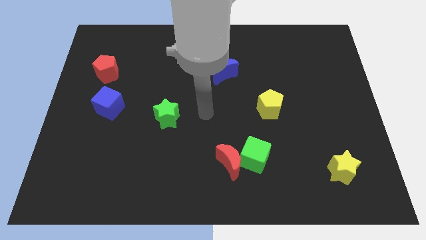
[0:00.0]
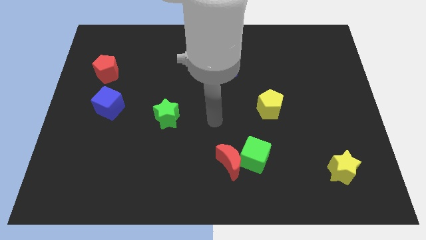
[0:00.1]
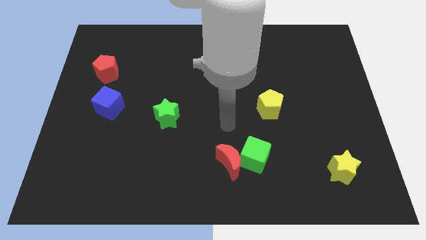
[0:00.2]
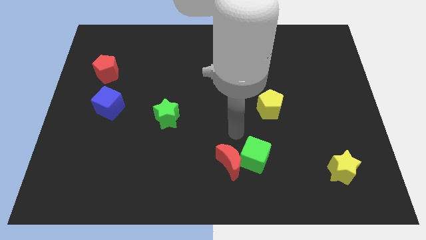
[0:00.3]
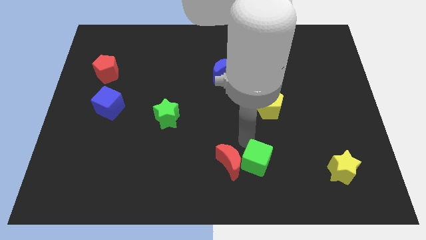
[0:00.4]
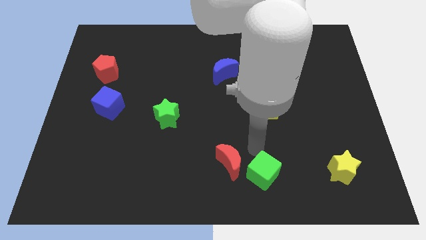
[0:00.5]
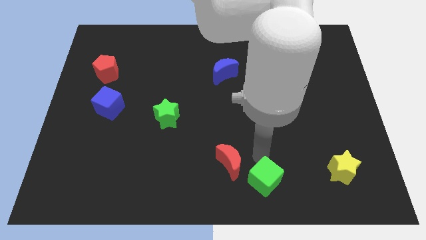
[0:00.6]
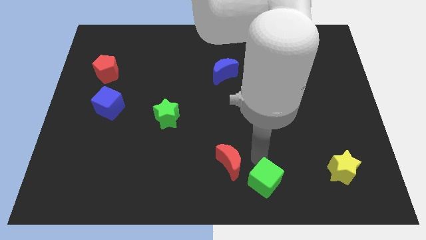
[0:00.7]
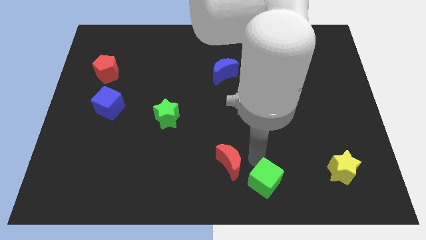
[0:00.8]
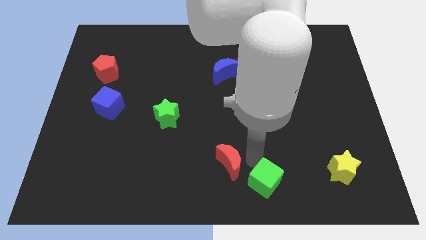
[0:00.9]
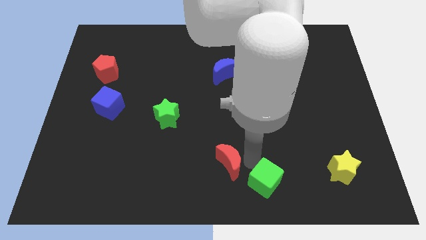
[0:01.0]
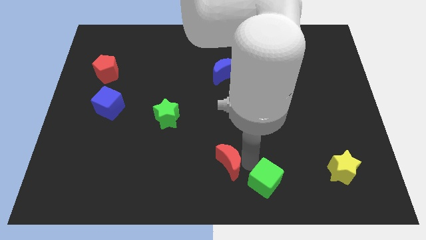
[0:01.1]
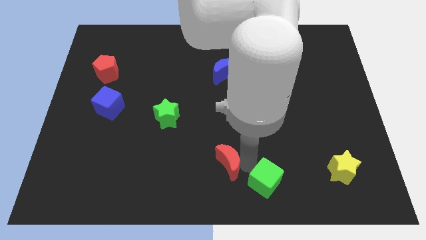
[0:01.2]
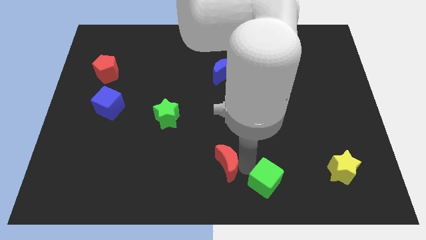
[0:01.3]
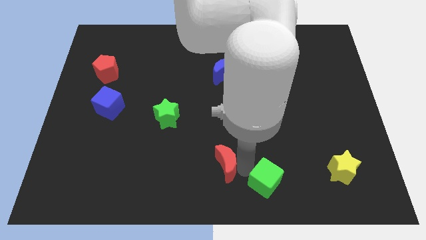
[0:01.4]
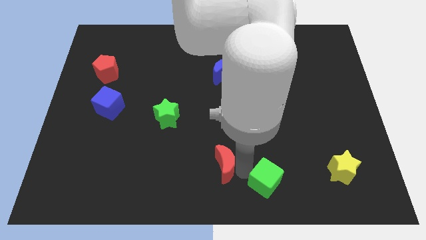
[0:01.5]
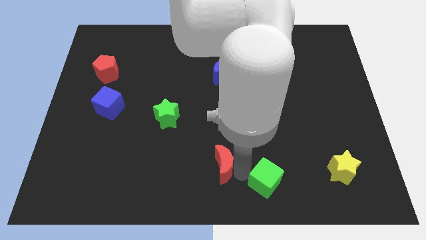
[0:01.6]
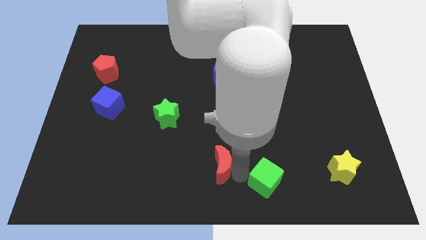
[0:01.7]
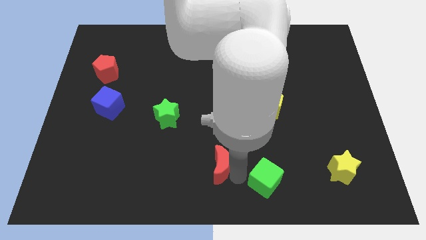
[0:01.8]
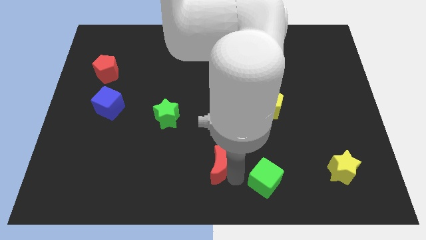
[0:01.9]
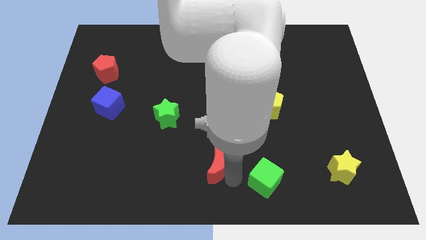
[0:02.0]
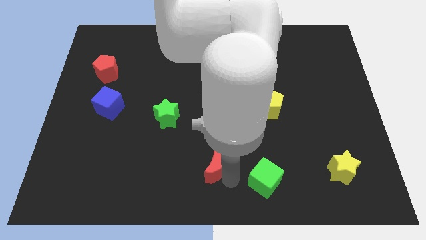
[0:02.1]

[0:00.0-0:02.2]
move the red moon away from the green cube

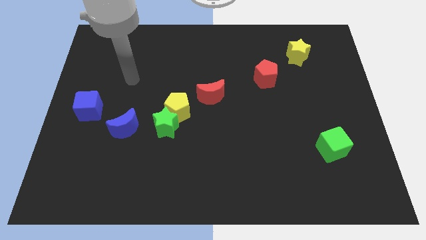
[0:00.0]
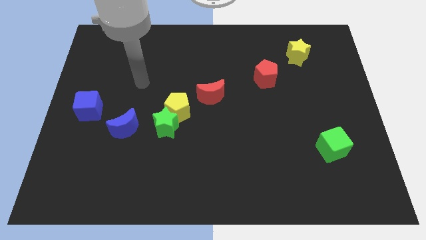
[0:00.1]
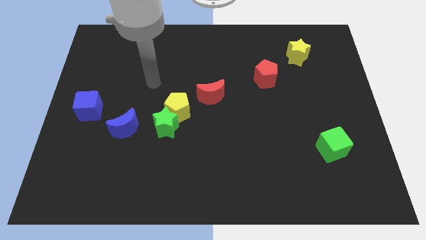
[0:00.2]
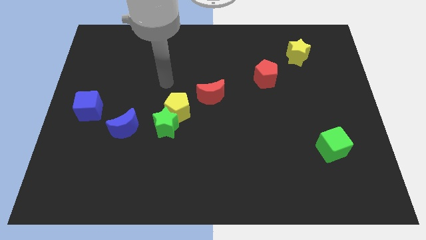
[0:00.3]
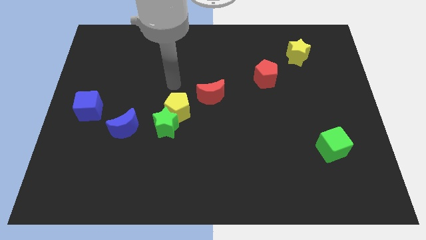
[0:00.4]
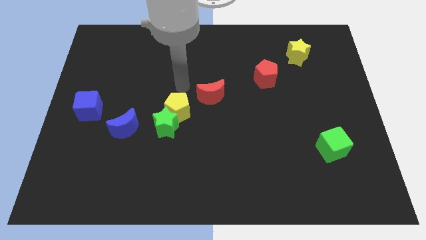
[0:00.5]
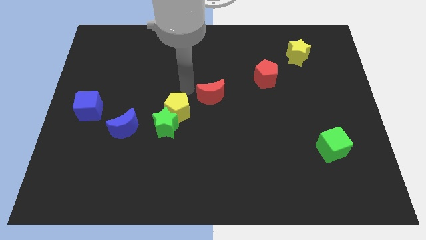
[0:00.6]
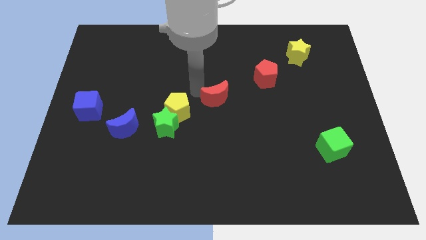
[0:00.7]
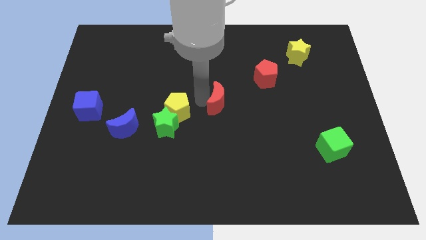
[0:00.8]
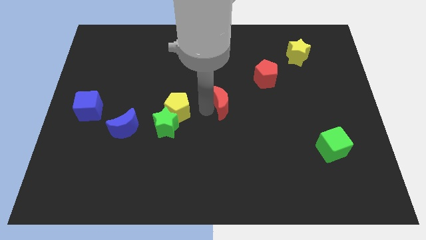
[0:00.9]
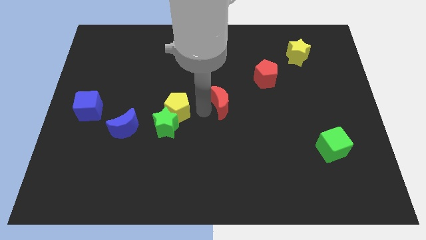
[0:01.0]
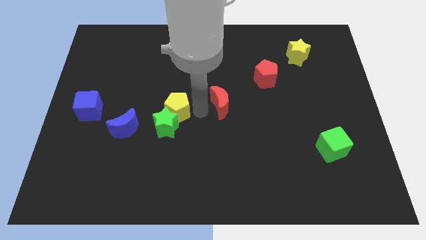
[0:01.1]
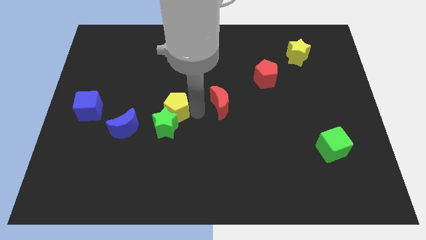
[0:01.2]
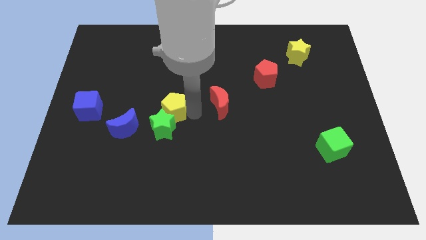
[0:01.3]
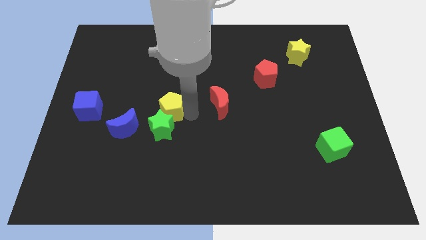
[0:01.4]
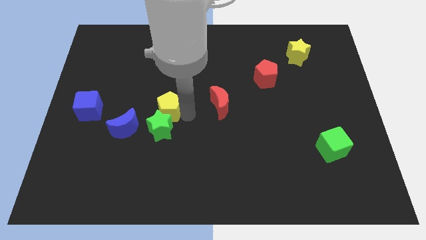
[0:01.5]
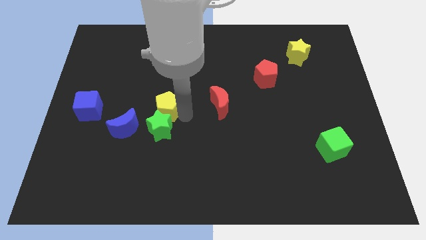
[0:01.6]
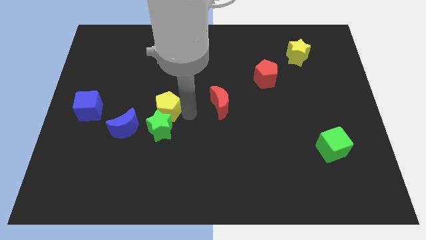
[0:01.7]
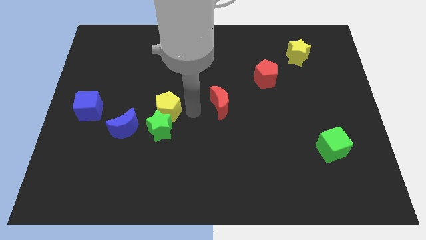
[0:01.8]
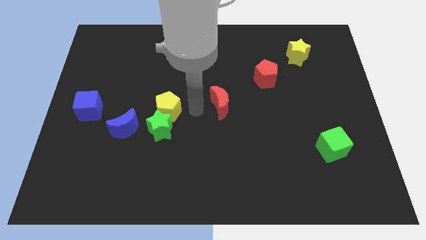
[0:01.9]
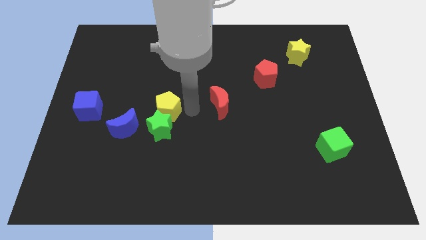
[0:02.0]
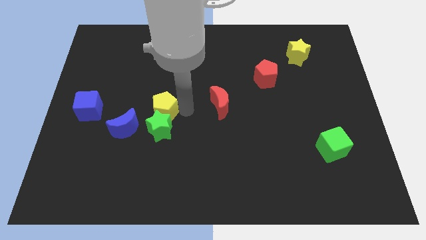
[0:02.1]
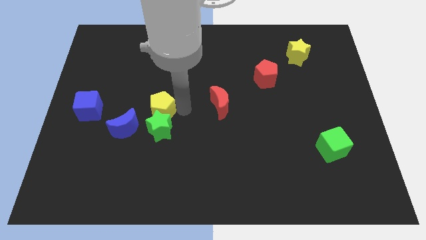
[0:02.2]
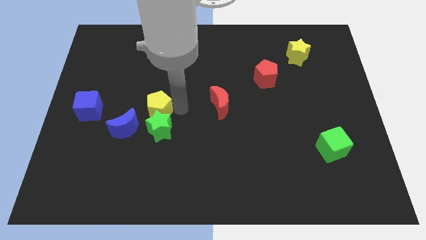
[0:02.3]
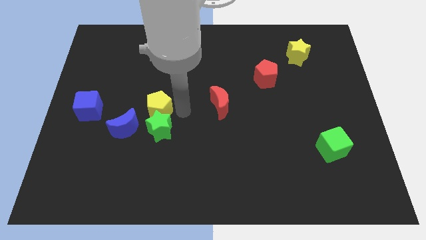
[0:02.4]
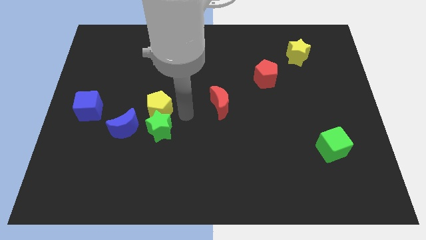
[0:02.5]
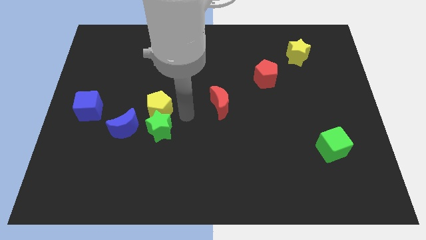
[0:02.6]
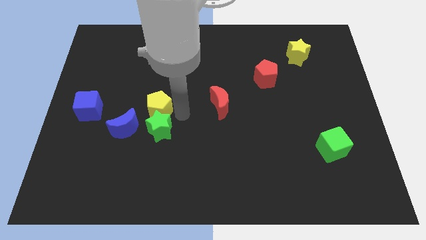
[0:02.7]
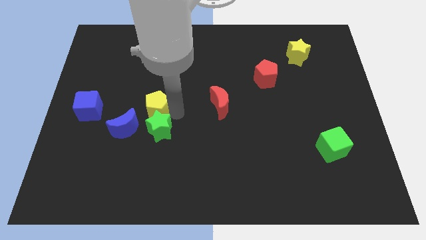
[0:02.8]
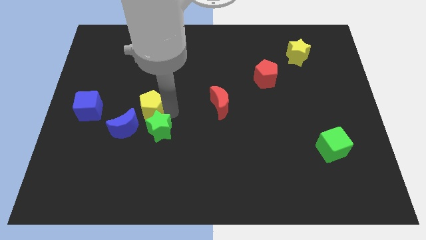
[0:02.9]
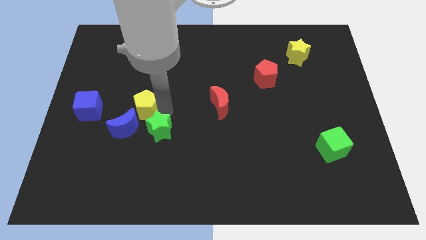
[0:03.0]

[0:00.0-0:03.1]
pull the yellow pentagon apart from the green star and red moon

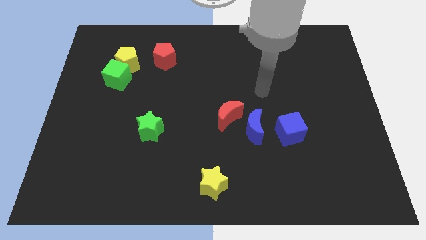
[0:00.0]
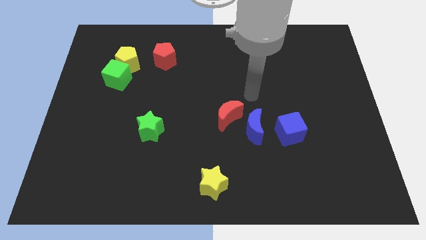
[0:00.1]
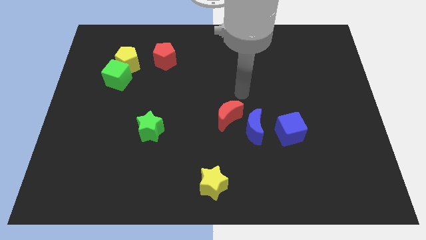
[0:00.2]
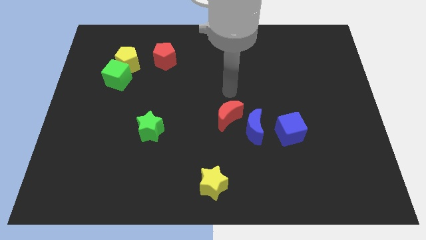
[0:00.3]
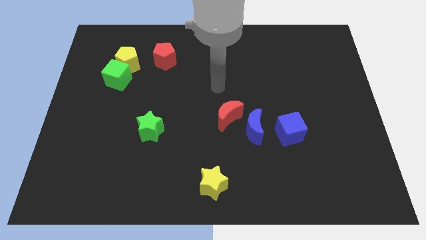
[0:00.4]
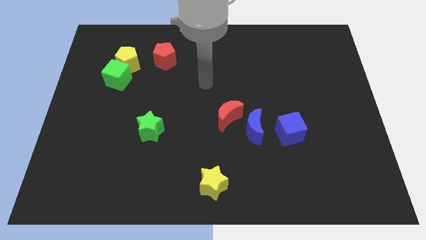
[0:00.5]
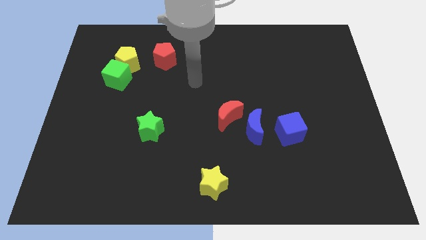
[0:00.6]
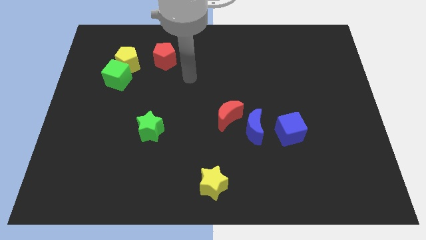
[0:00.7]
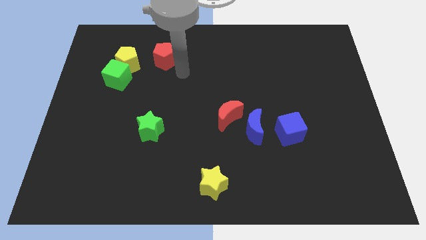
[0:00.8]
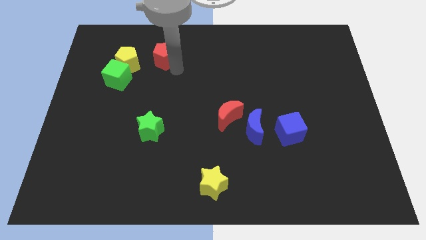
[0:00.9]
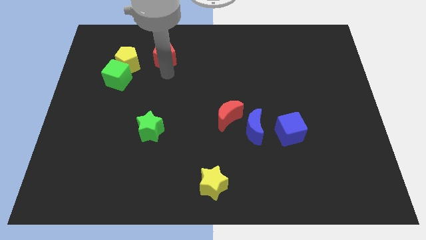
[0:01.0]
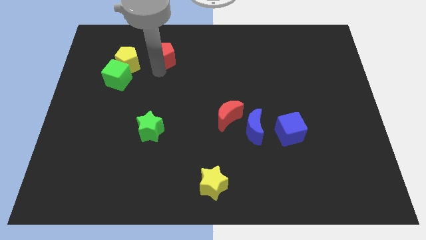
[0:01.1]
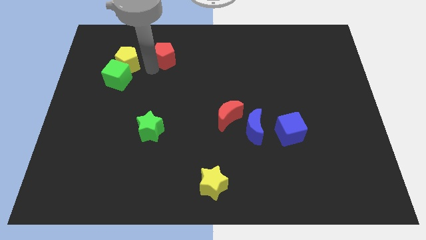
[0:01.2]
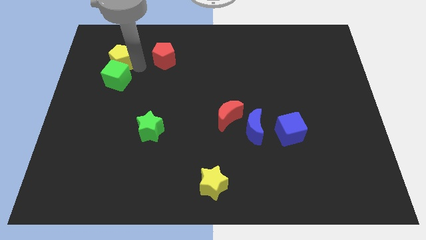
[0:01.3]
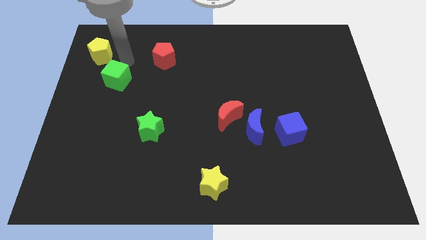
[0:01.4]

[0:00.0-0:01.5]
separate the green cube from the yellow pentagon

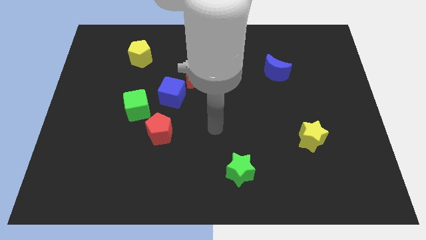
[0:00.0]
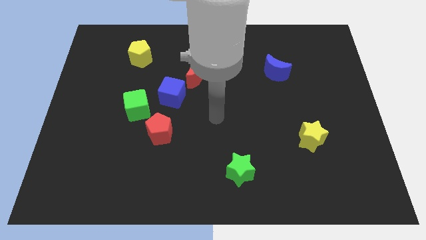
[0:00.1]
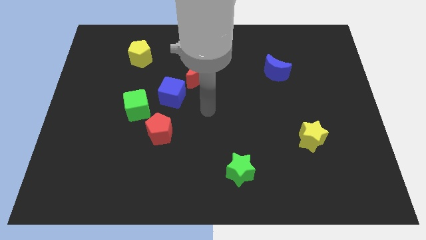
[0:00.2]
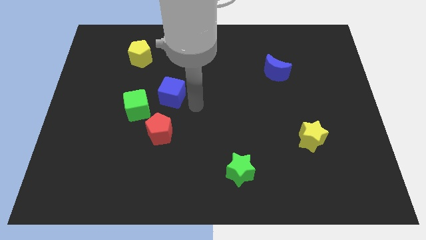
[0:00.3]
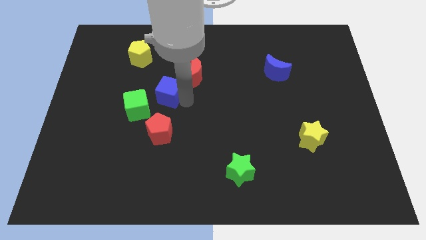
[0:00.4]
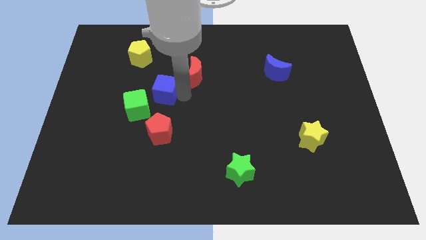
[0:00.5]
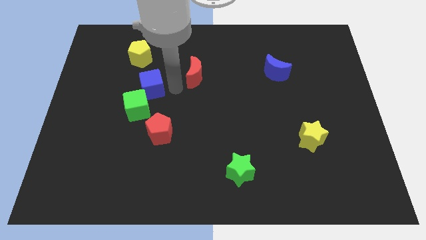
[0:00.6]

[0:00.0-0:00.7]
move the red moon away from the blue cube

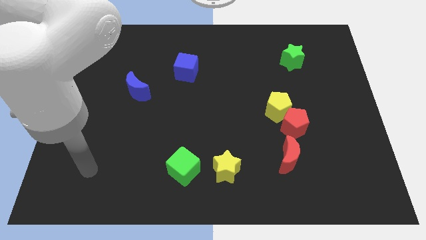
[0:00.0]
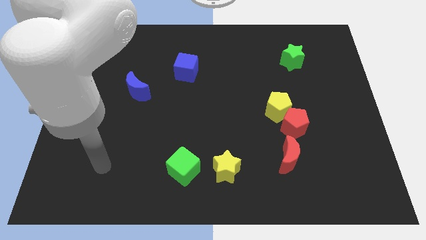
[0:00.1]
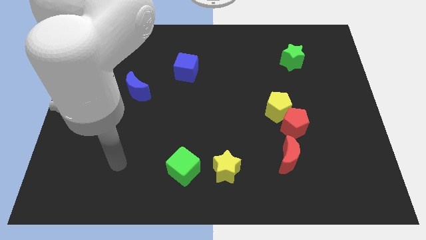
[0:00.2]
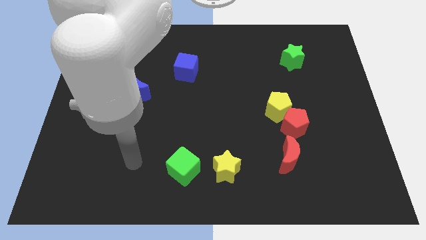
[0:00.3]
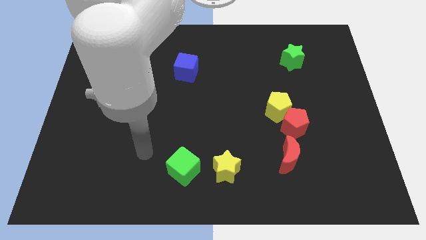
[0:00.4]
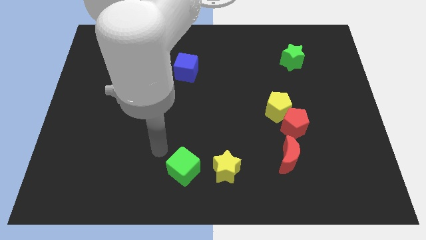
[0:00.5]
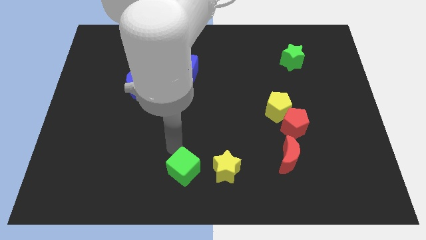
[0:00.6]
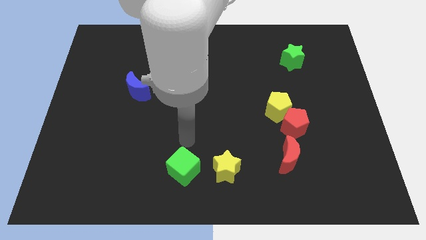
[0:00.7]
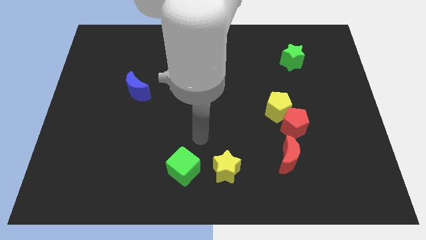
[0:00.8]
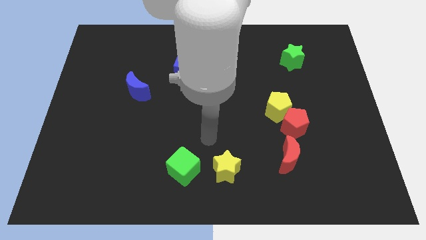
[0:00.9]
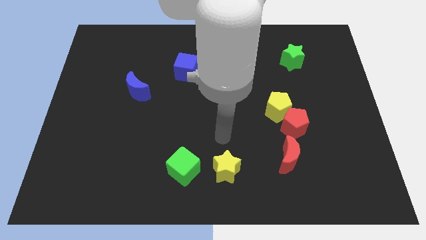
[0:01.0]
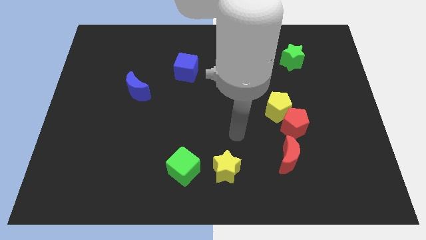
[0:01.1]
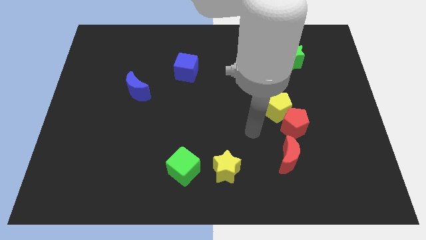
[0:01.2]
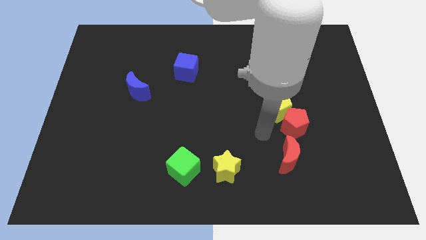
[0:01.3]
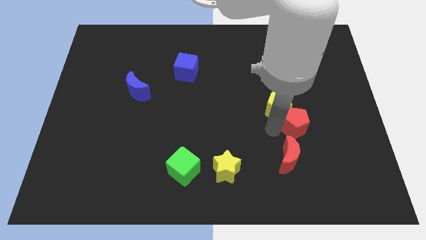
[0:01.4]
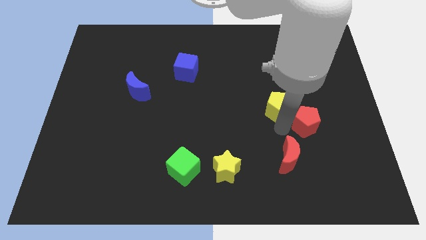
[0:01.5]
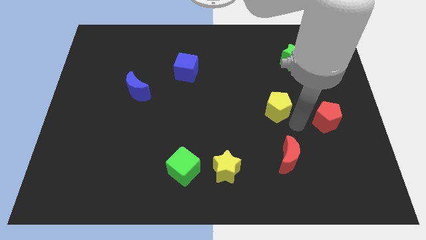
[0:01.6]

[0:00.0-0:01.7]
pull the yellow pentagon apart from the red pentagon
